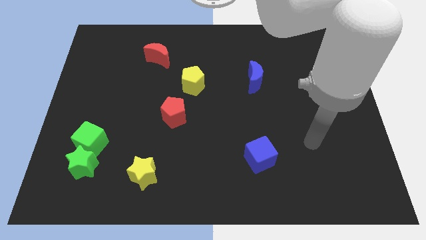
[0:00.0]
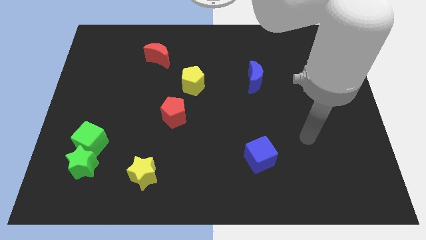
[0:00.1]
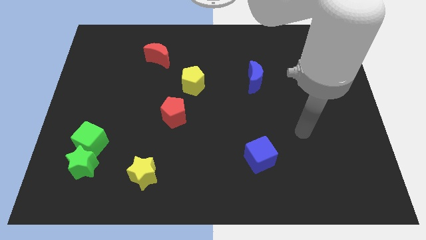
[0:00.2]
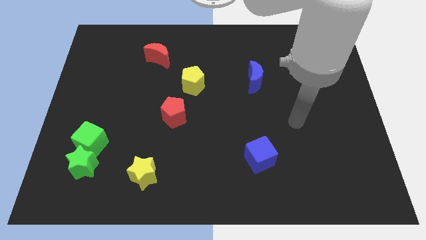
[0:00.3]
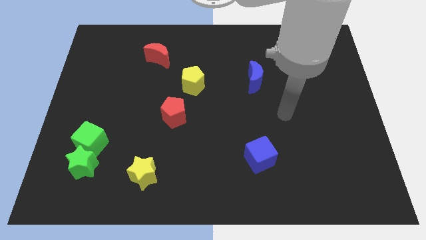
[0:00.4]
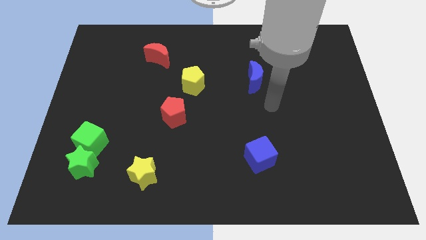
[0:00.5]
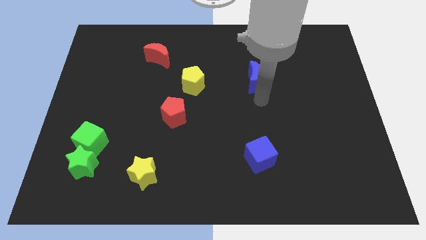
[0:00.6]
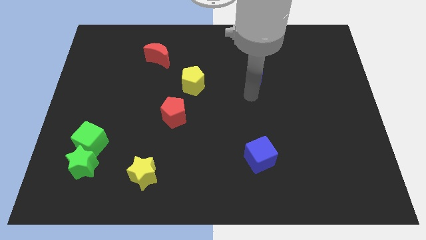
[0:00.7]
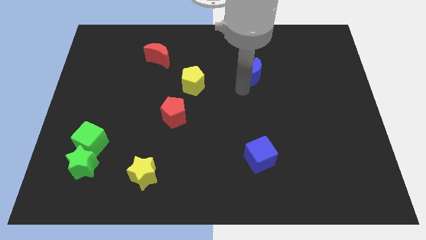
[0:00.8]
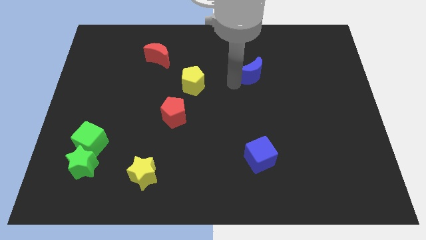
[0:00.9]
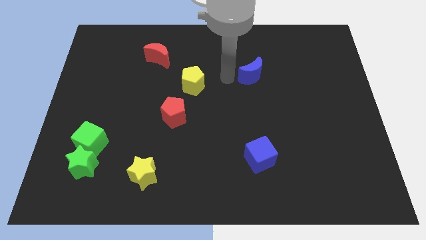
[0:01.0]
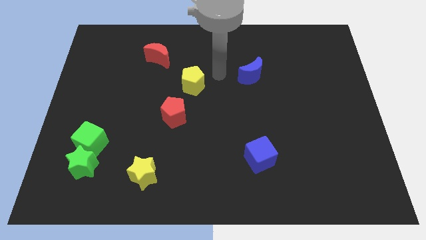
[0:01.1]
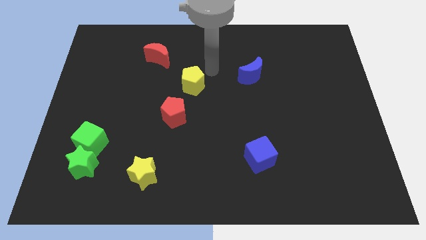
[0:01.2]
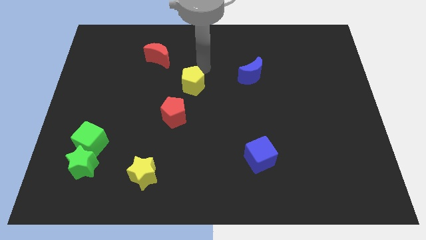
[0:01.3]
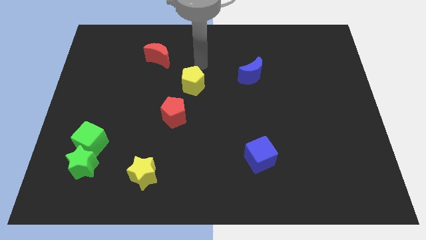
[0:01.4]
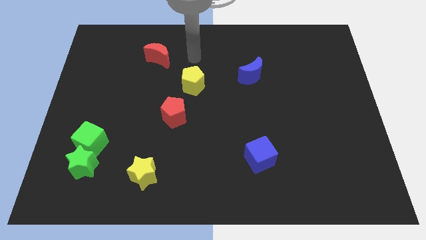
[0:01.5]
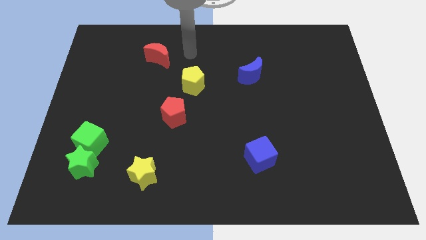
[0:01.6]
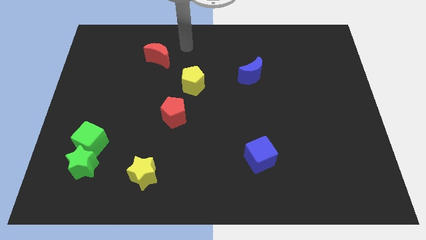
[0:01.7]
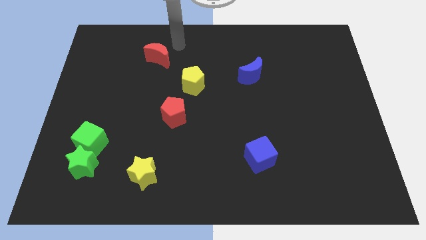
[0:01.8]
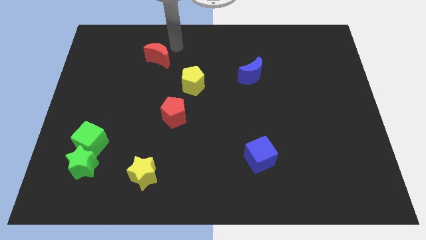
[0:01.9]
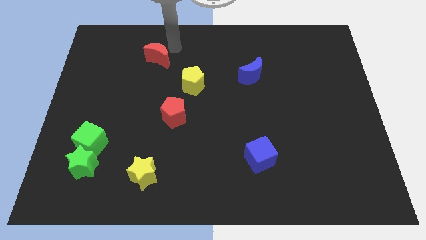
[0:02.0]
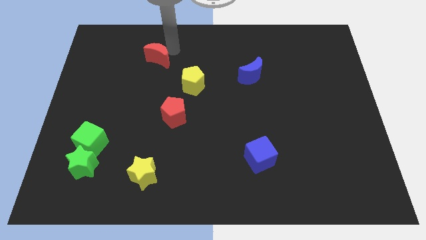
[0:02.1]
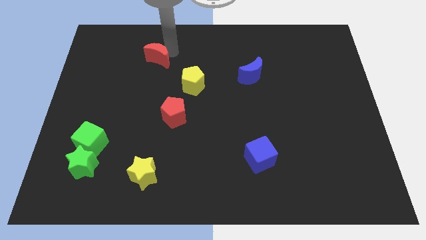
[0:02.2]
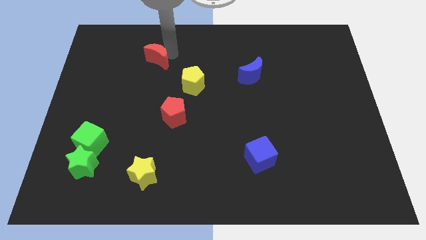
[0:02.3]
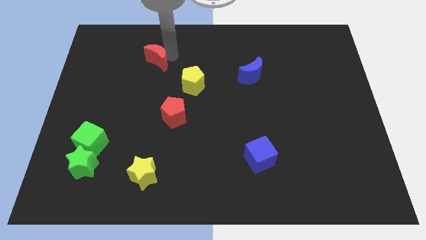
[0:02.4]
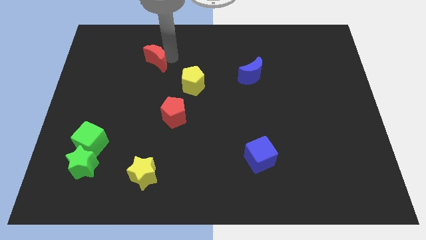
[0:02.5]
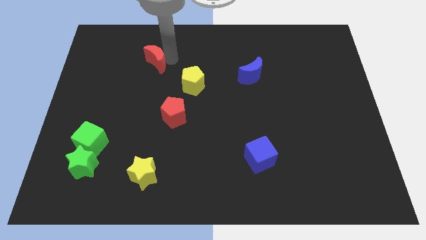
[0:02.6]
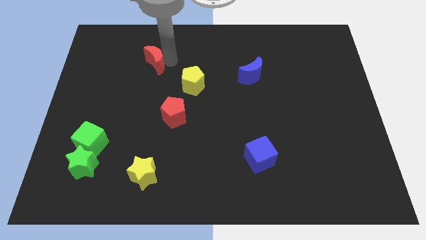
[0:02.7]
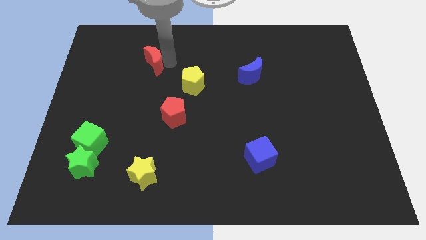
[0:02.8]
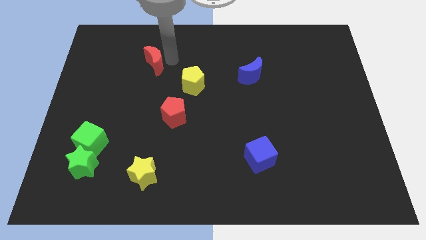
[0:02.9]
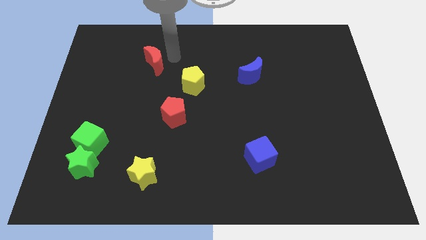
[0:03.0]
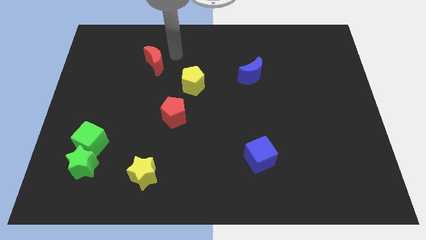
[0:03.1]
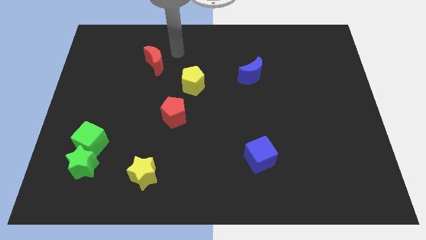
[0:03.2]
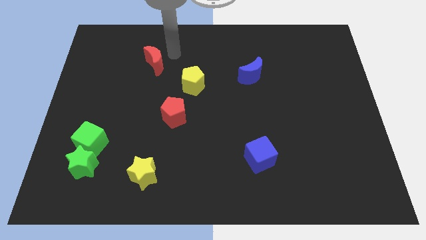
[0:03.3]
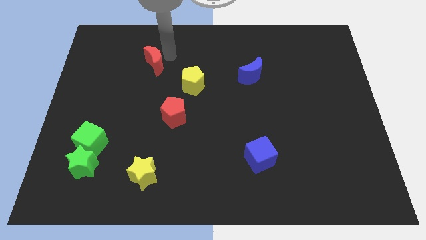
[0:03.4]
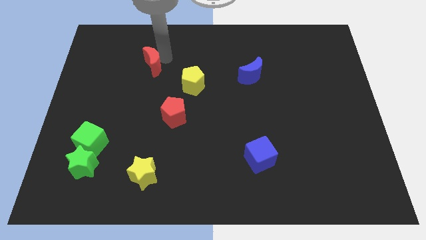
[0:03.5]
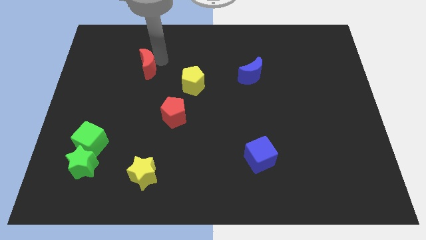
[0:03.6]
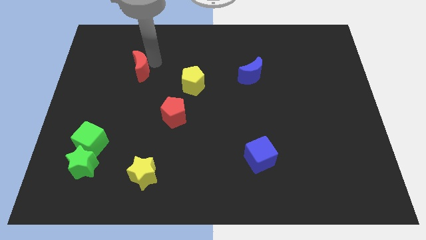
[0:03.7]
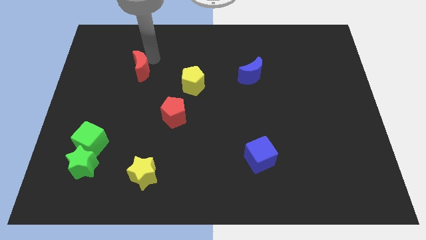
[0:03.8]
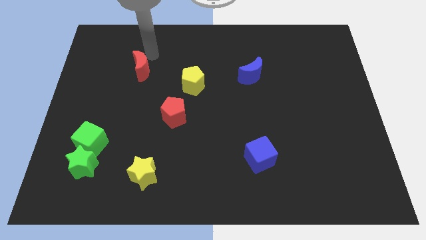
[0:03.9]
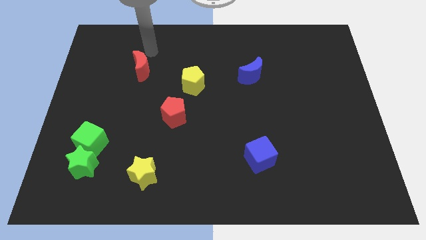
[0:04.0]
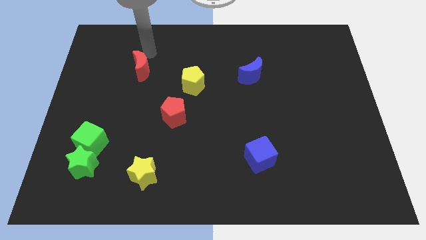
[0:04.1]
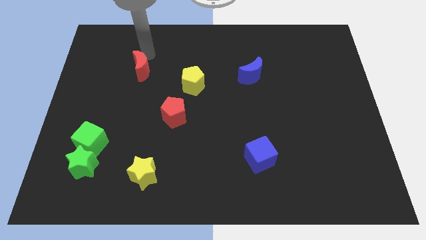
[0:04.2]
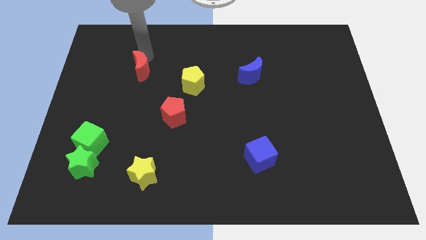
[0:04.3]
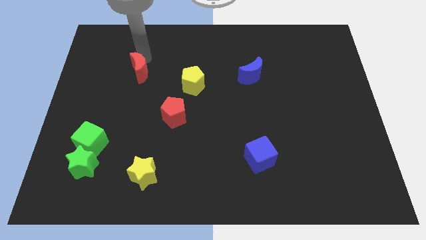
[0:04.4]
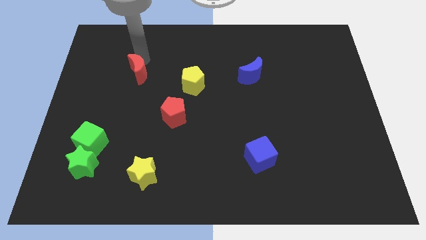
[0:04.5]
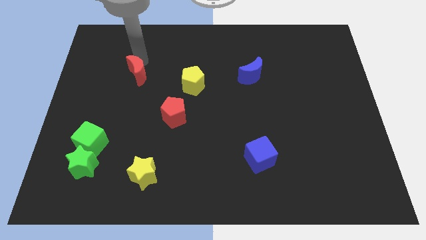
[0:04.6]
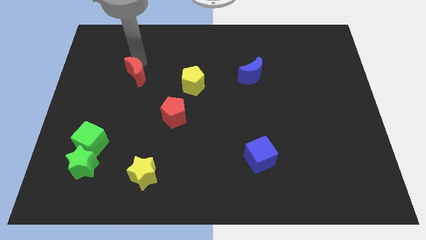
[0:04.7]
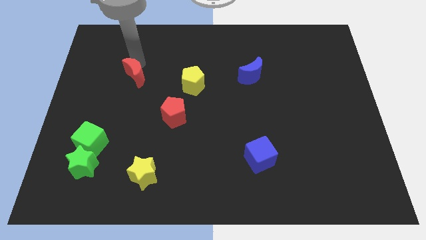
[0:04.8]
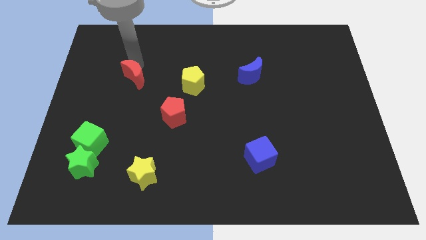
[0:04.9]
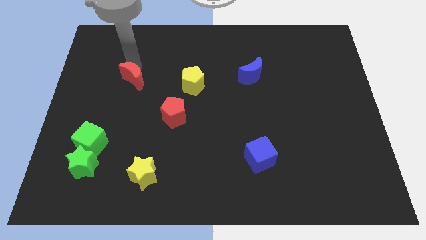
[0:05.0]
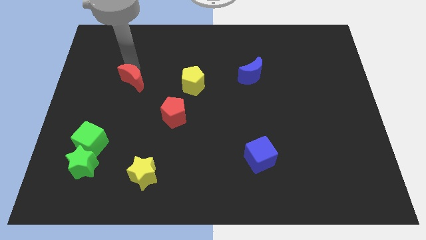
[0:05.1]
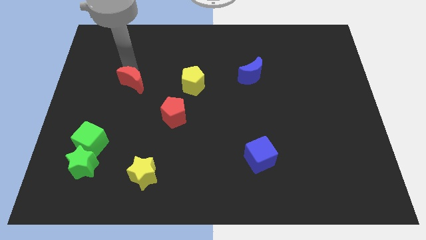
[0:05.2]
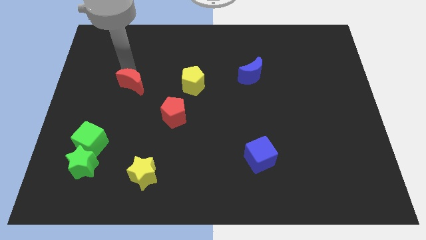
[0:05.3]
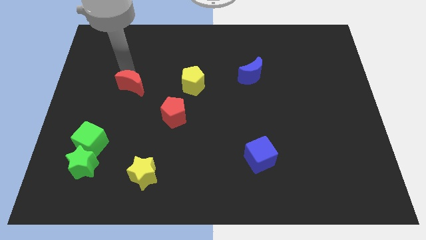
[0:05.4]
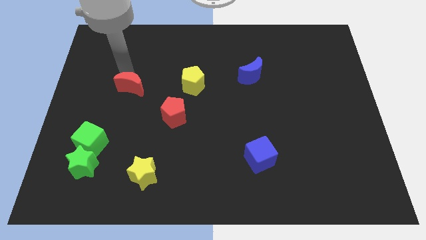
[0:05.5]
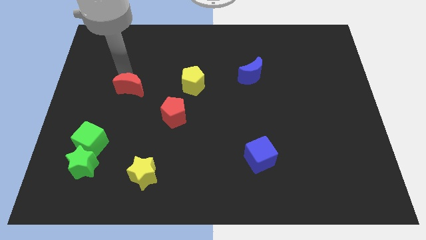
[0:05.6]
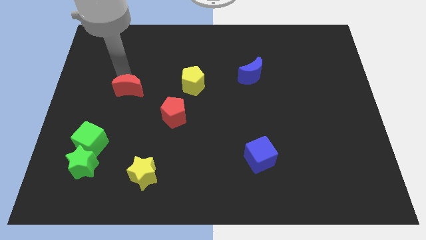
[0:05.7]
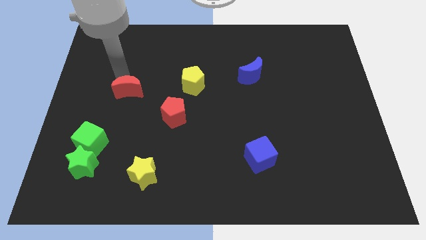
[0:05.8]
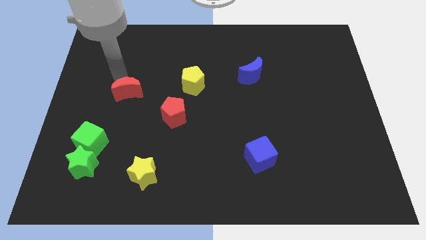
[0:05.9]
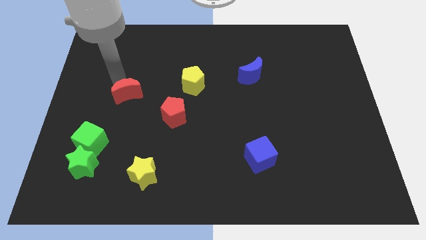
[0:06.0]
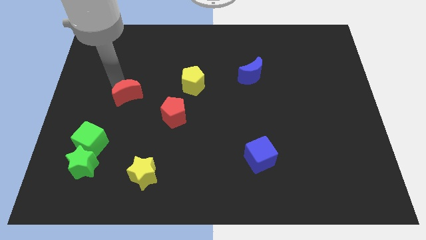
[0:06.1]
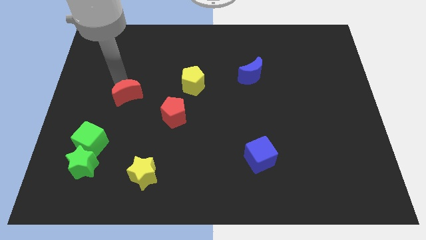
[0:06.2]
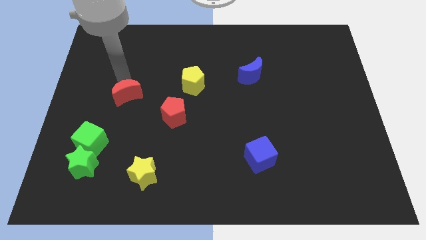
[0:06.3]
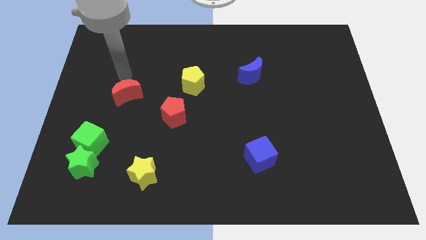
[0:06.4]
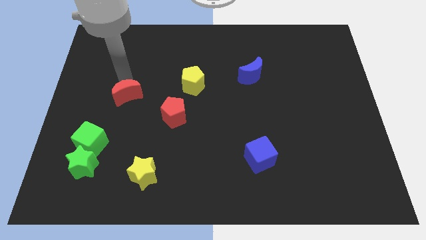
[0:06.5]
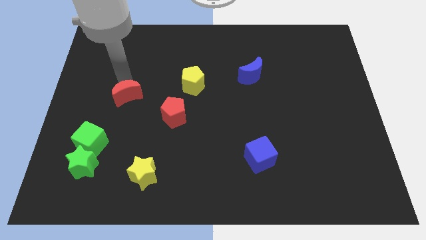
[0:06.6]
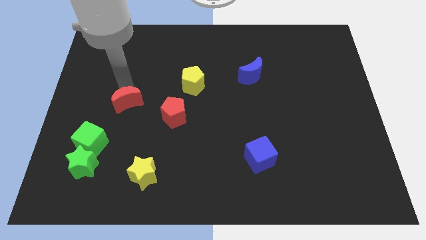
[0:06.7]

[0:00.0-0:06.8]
put the red moon just left of the red pentagon
